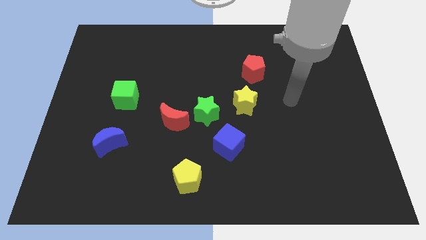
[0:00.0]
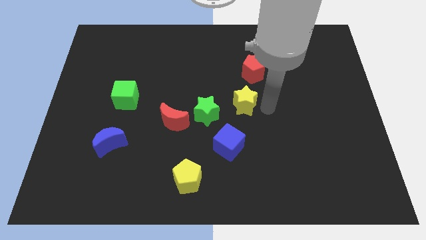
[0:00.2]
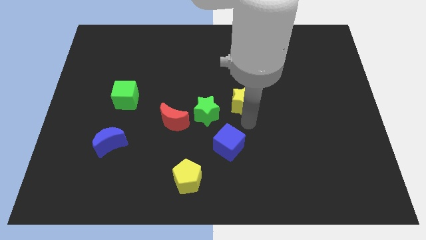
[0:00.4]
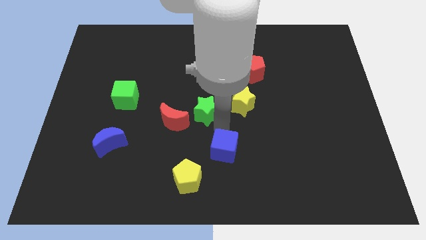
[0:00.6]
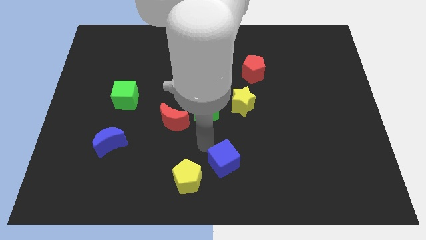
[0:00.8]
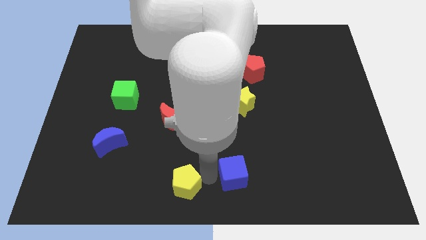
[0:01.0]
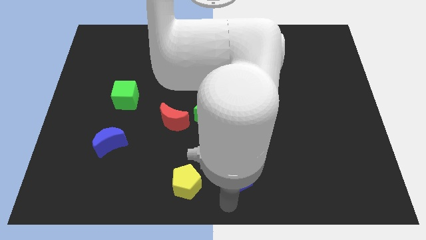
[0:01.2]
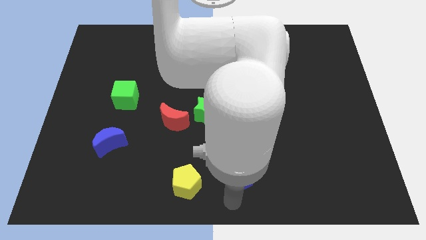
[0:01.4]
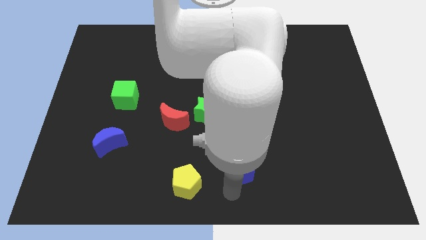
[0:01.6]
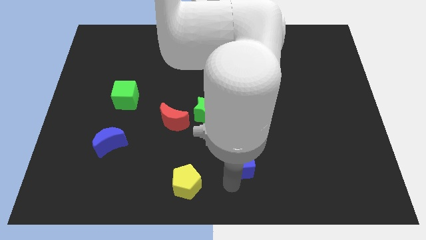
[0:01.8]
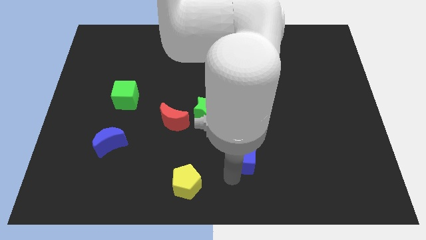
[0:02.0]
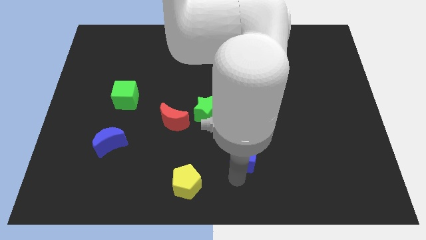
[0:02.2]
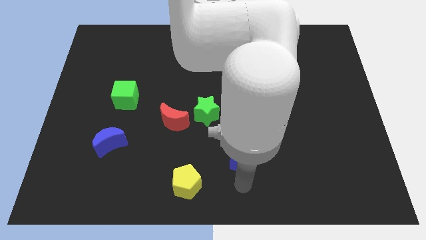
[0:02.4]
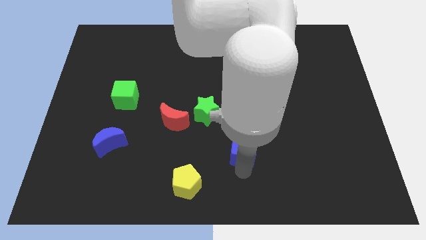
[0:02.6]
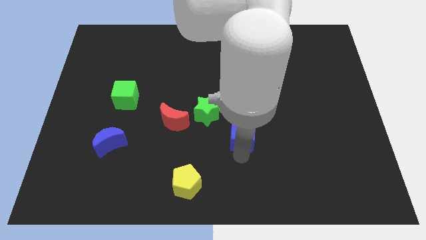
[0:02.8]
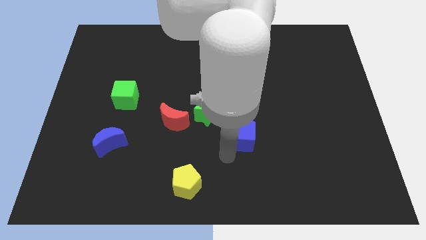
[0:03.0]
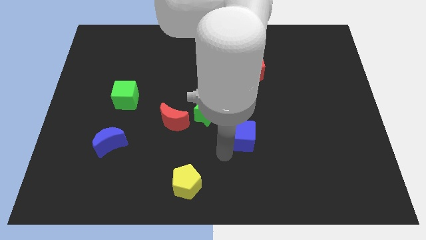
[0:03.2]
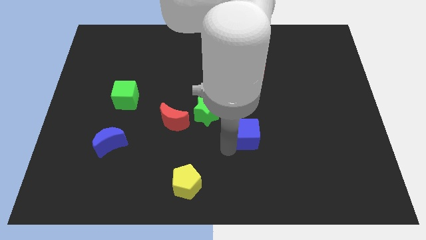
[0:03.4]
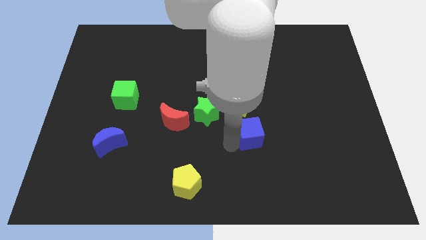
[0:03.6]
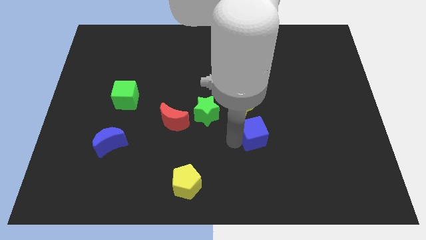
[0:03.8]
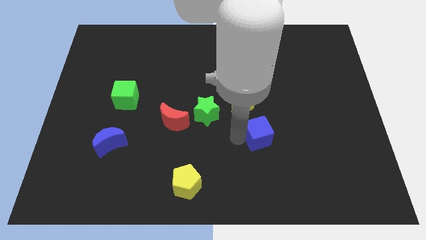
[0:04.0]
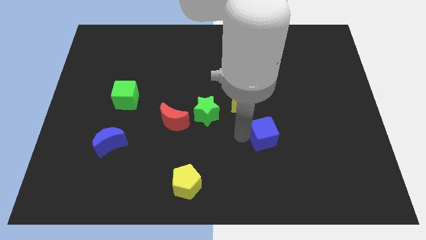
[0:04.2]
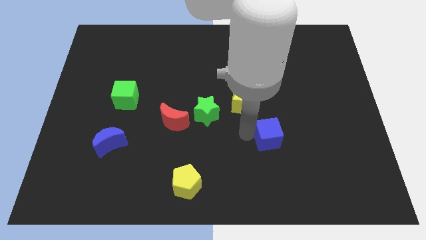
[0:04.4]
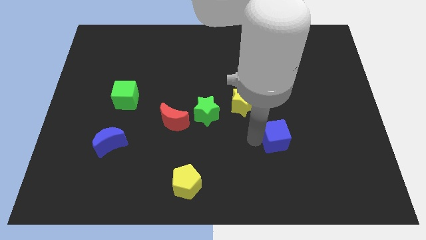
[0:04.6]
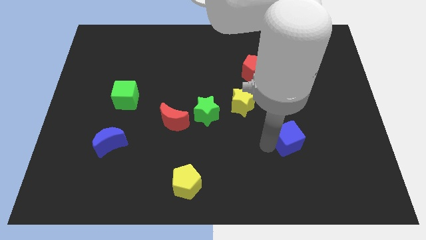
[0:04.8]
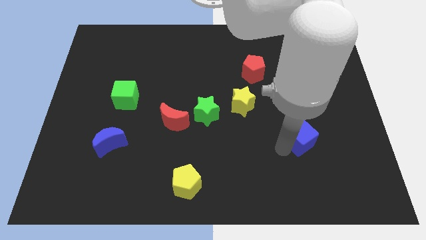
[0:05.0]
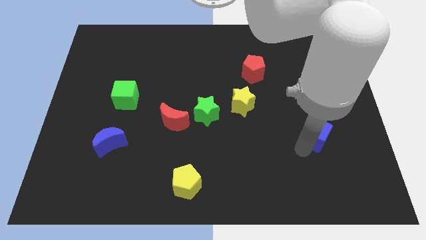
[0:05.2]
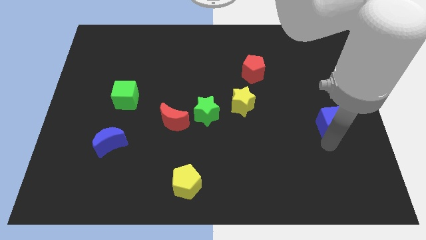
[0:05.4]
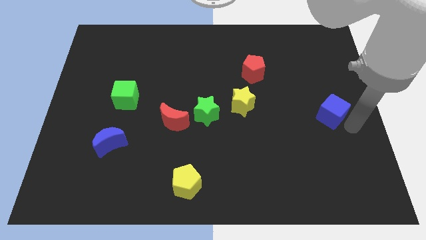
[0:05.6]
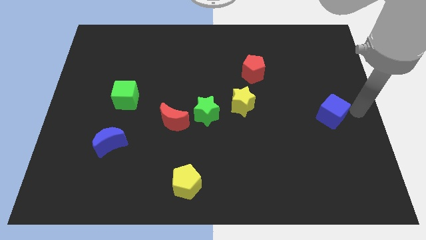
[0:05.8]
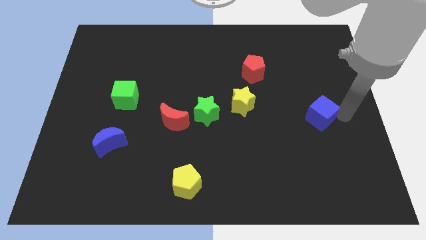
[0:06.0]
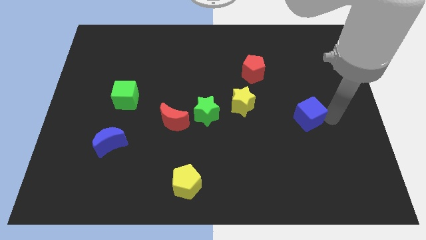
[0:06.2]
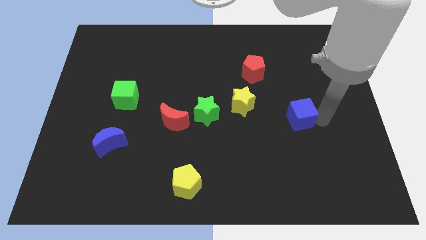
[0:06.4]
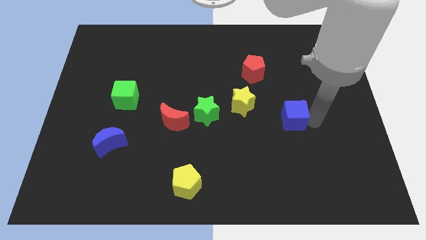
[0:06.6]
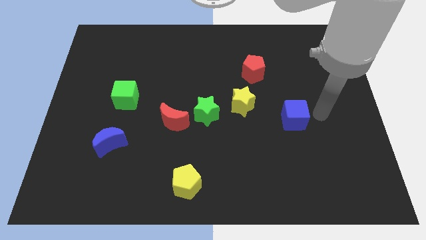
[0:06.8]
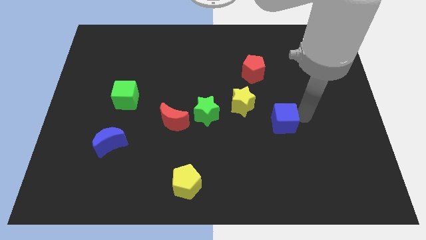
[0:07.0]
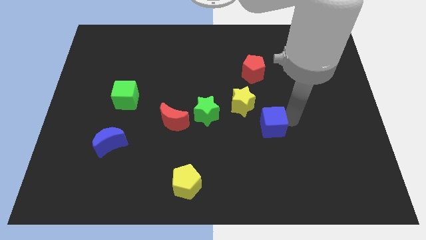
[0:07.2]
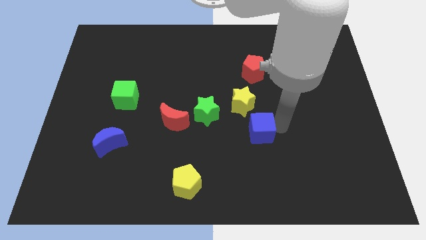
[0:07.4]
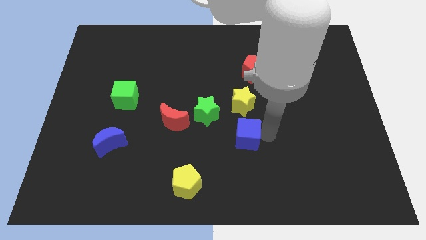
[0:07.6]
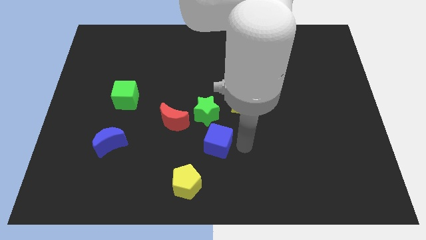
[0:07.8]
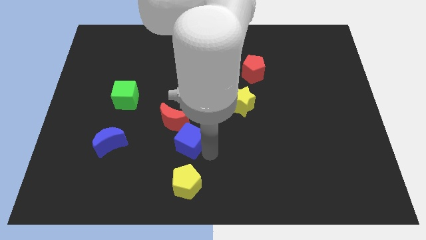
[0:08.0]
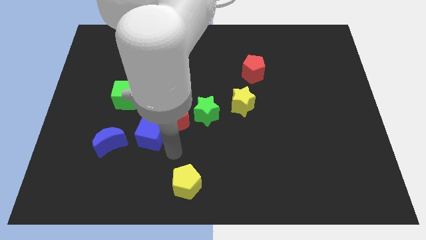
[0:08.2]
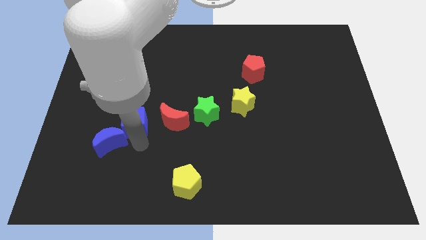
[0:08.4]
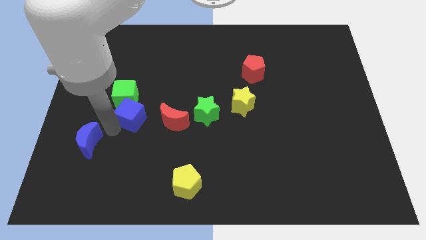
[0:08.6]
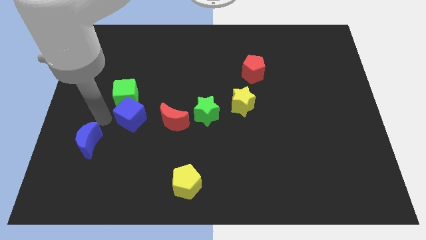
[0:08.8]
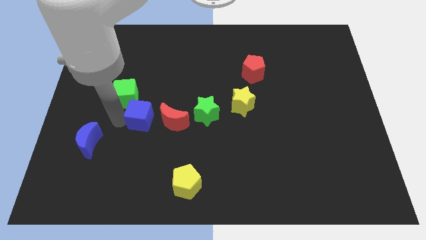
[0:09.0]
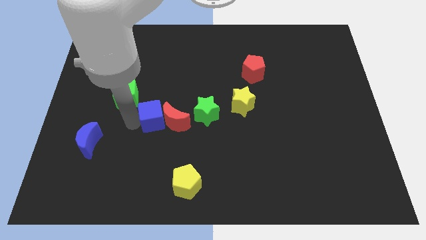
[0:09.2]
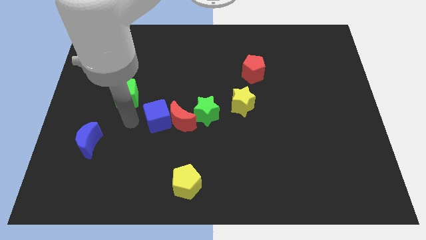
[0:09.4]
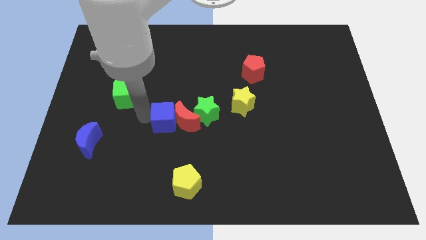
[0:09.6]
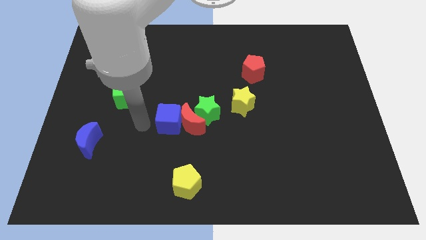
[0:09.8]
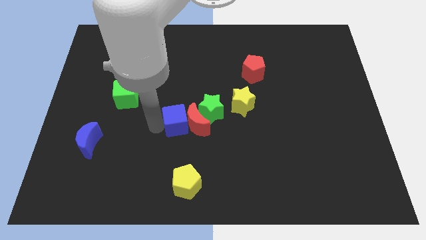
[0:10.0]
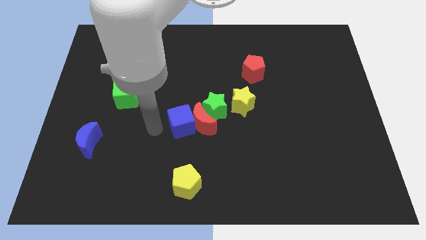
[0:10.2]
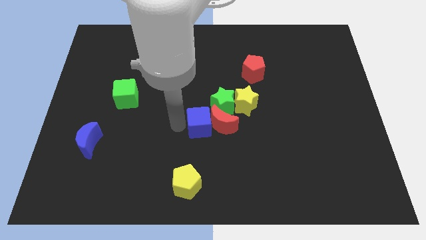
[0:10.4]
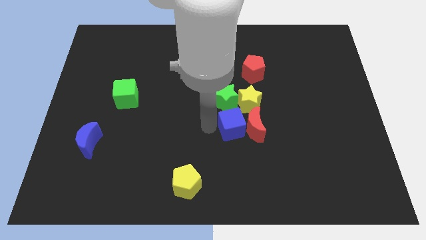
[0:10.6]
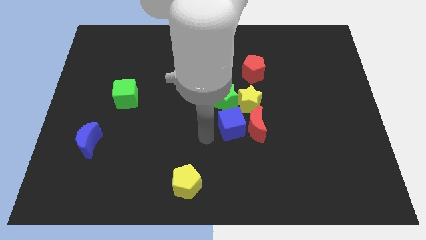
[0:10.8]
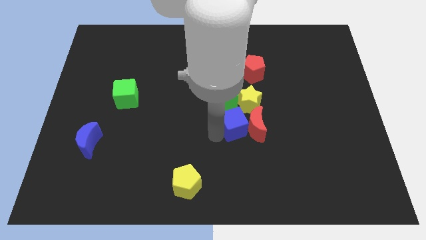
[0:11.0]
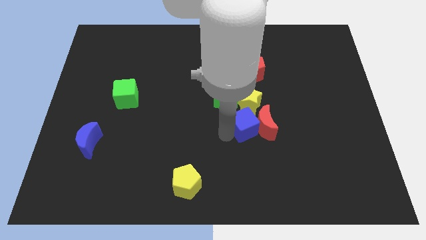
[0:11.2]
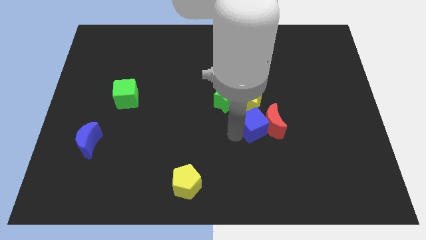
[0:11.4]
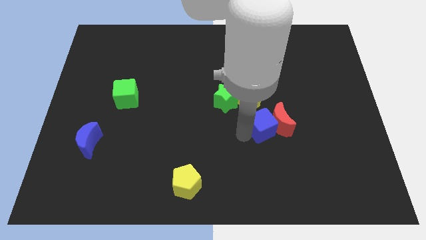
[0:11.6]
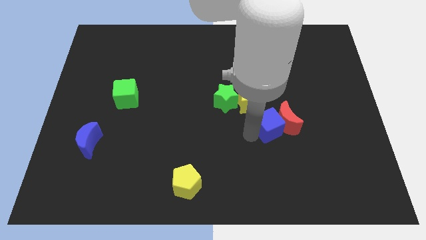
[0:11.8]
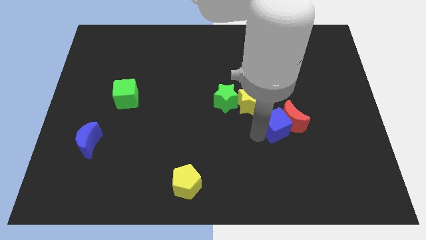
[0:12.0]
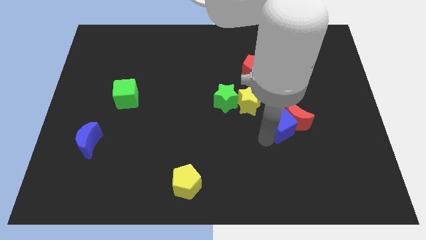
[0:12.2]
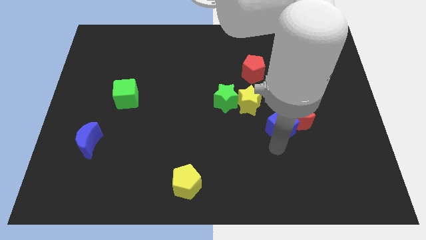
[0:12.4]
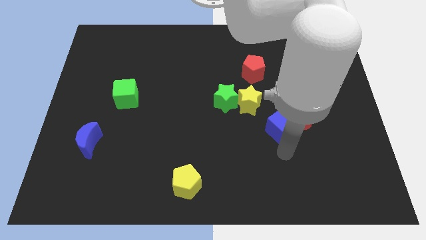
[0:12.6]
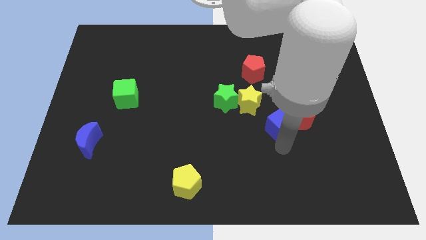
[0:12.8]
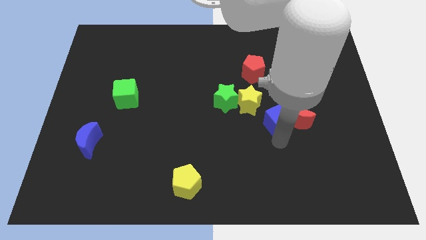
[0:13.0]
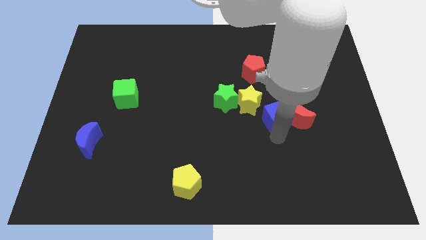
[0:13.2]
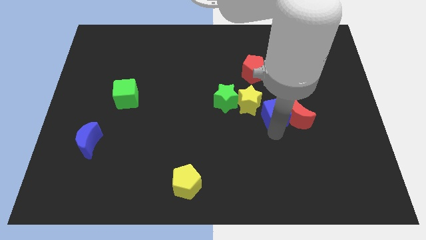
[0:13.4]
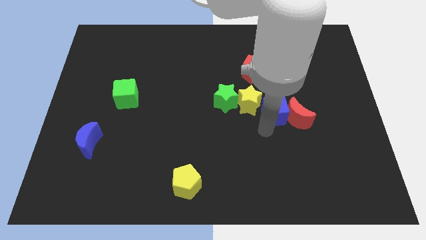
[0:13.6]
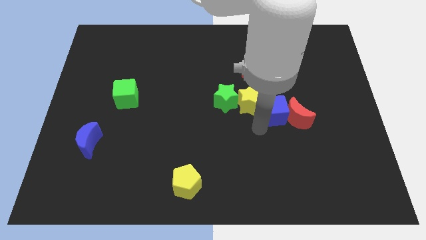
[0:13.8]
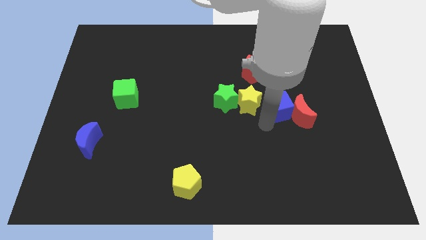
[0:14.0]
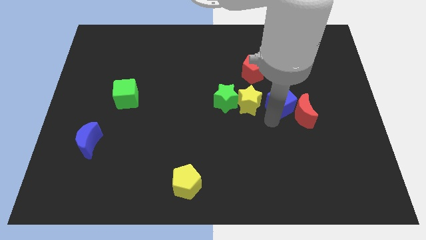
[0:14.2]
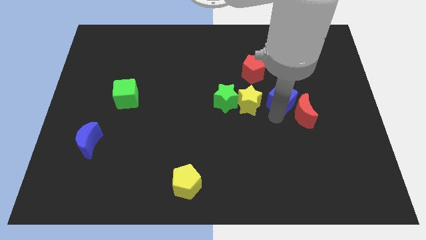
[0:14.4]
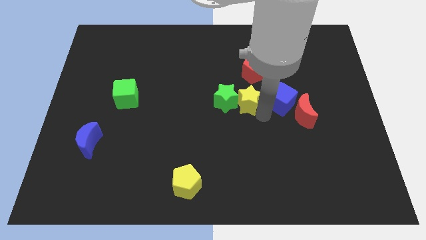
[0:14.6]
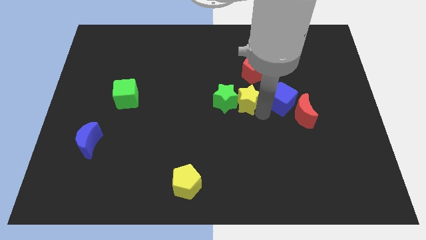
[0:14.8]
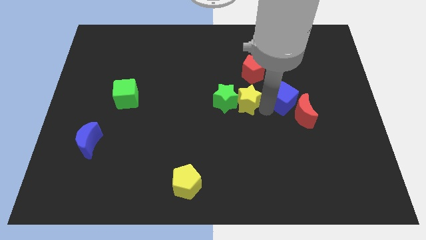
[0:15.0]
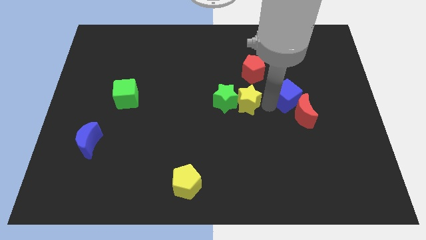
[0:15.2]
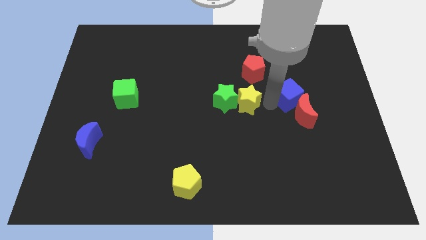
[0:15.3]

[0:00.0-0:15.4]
push the blue cube upwards and right diagonally
